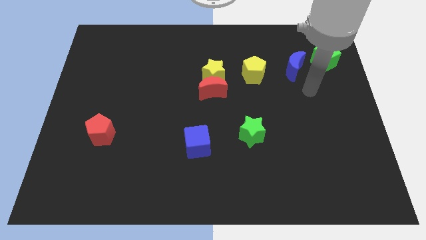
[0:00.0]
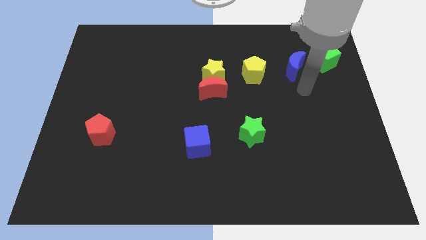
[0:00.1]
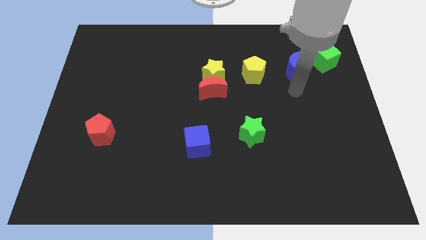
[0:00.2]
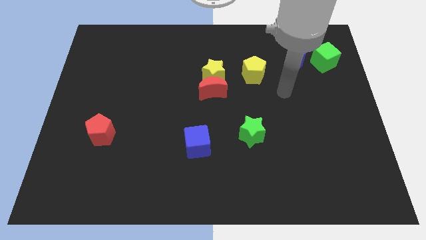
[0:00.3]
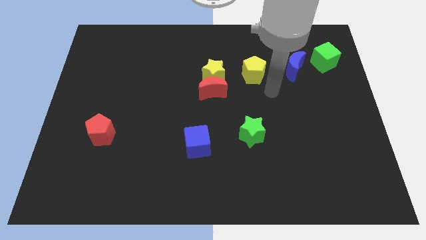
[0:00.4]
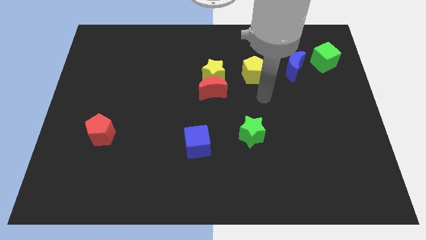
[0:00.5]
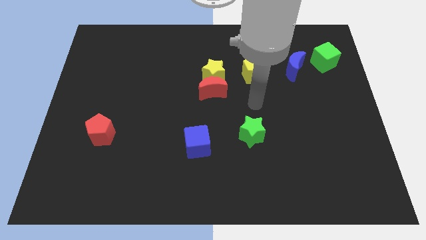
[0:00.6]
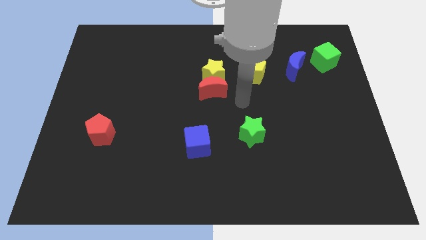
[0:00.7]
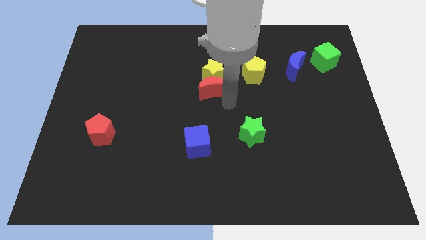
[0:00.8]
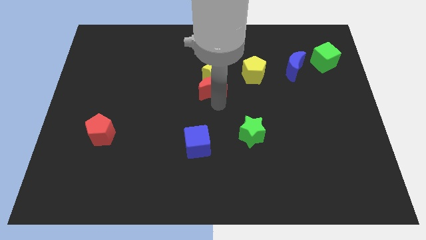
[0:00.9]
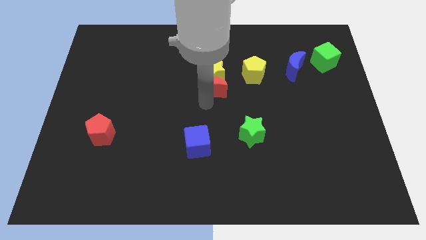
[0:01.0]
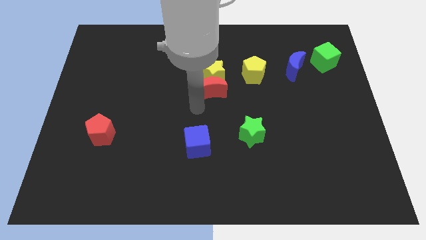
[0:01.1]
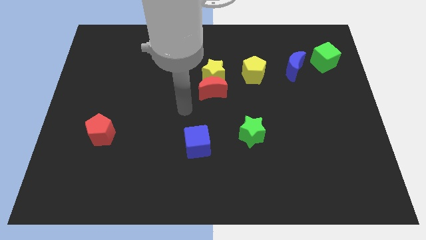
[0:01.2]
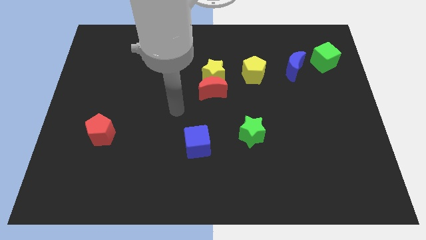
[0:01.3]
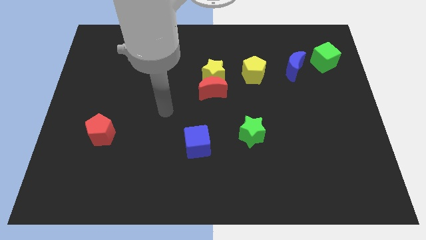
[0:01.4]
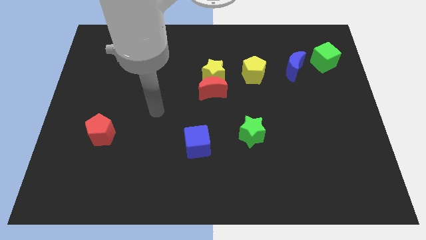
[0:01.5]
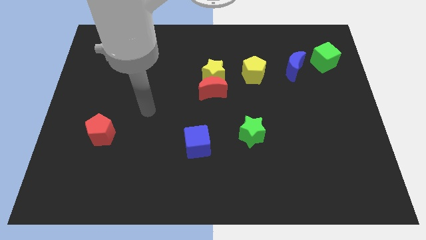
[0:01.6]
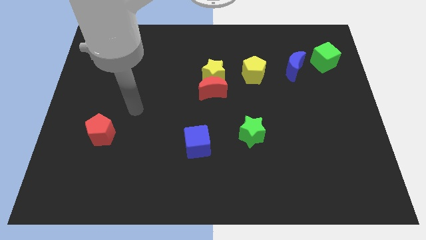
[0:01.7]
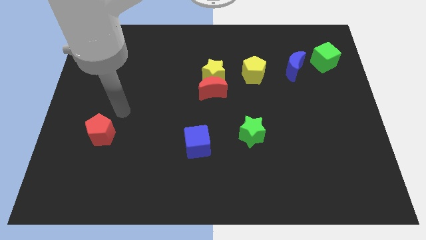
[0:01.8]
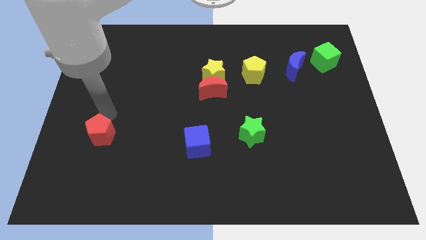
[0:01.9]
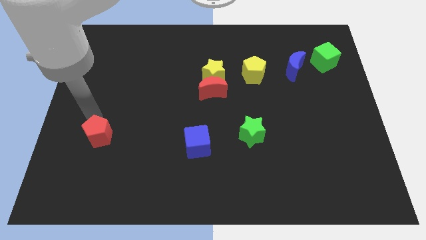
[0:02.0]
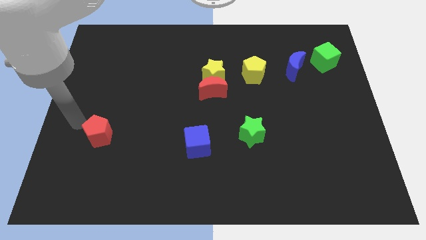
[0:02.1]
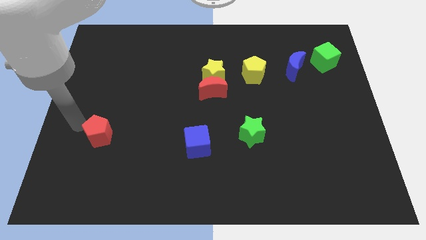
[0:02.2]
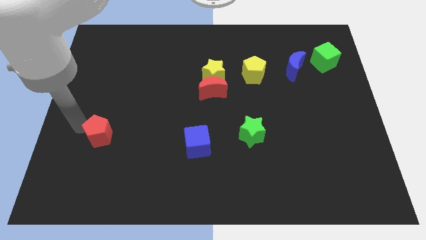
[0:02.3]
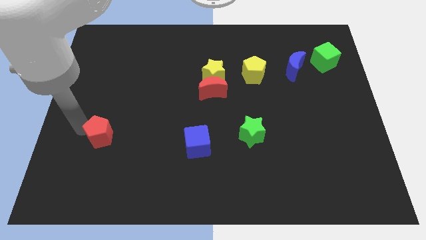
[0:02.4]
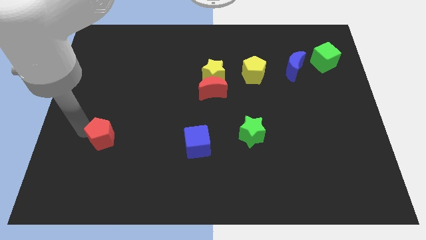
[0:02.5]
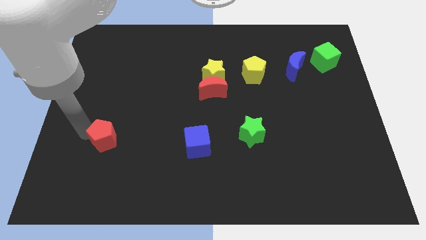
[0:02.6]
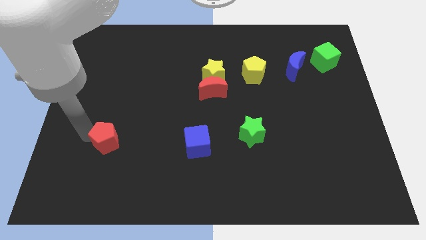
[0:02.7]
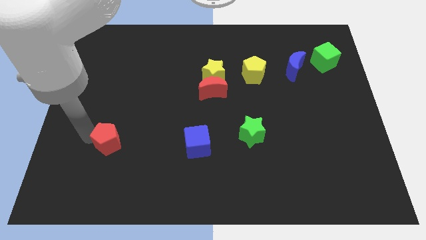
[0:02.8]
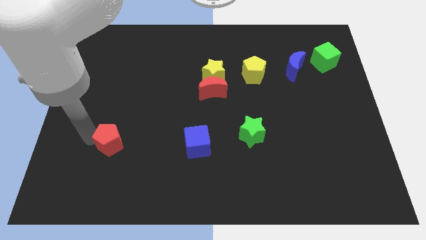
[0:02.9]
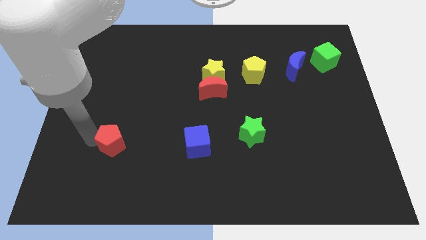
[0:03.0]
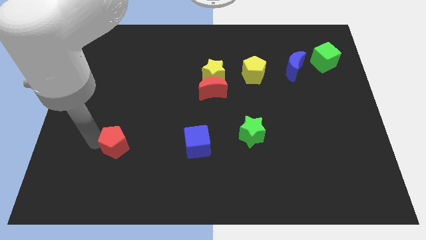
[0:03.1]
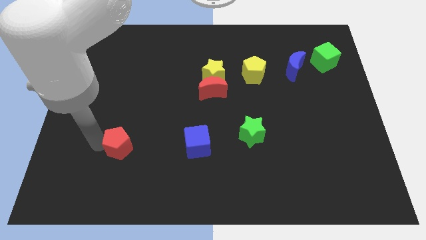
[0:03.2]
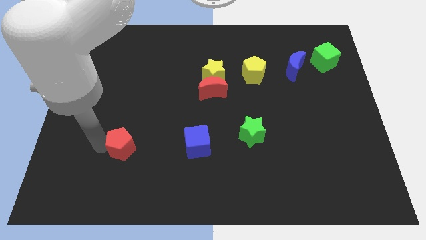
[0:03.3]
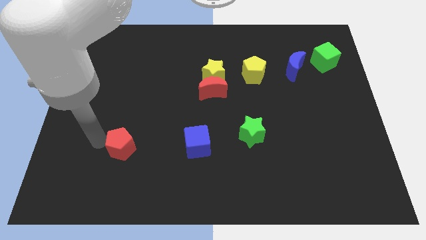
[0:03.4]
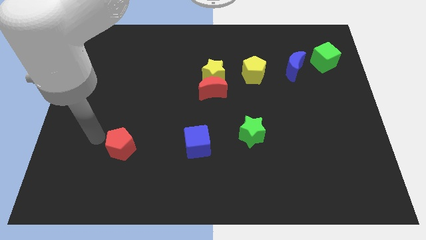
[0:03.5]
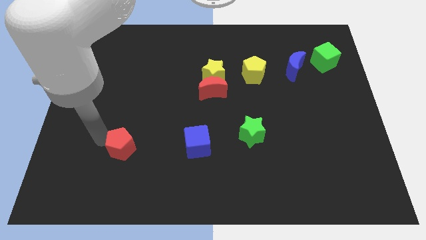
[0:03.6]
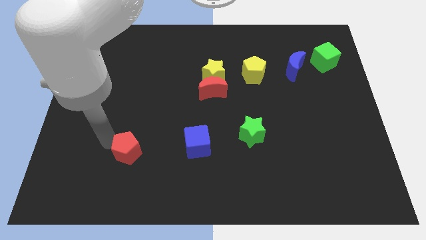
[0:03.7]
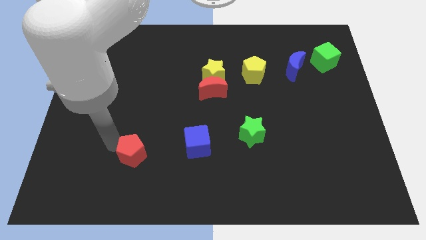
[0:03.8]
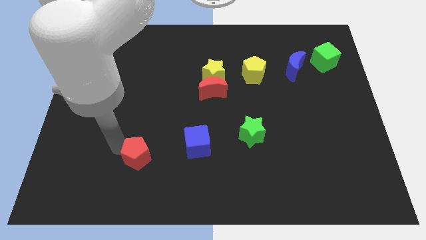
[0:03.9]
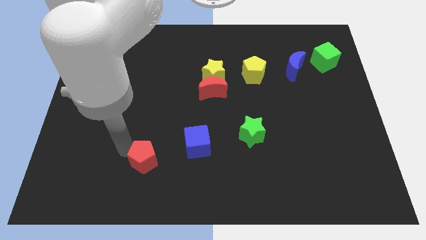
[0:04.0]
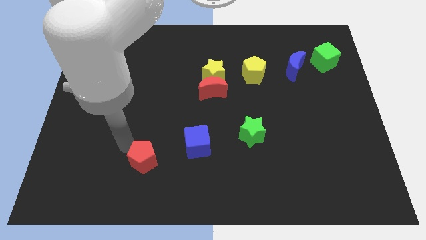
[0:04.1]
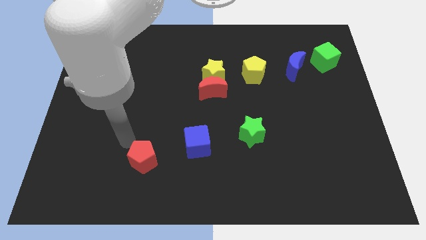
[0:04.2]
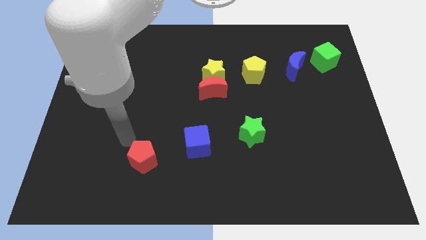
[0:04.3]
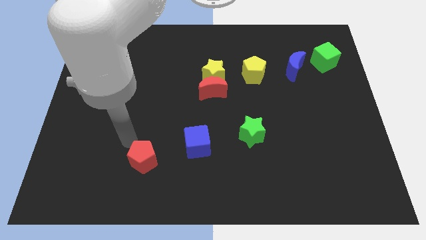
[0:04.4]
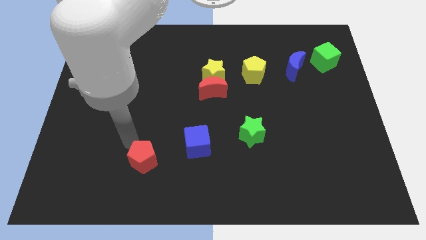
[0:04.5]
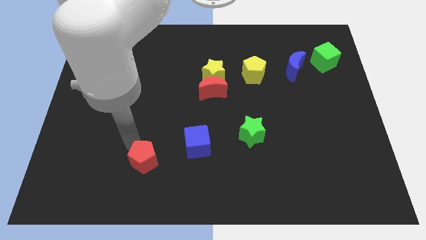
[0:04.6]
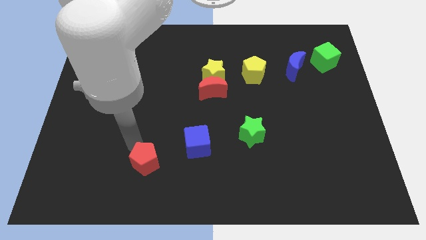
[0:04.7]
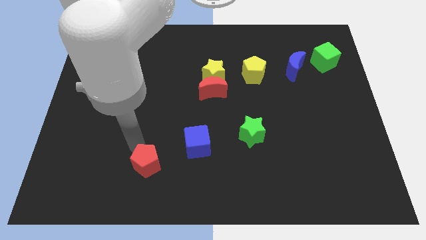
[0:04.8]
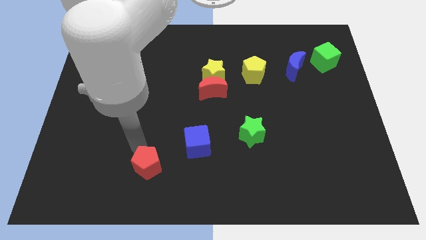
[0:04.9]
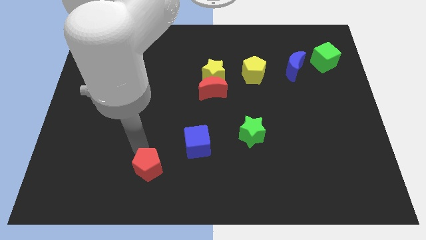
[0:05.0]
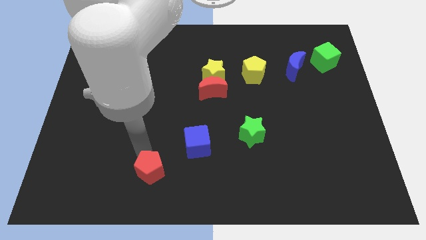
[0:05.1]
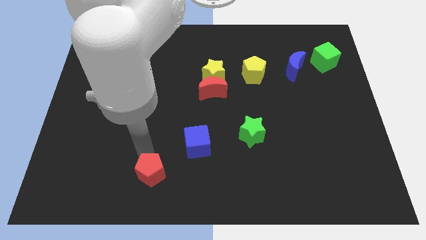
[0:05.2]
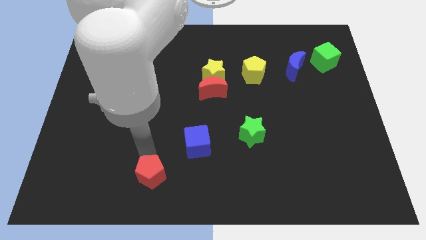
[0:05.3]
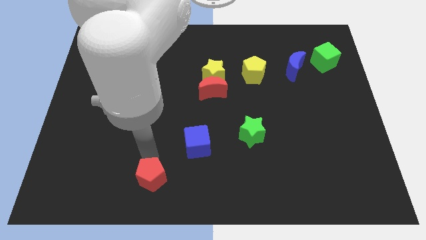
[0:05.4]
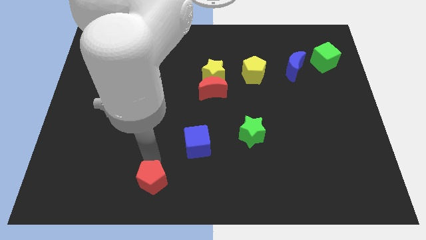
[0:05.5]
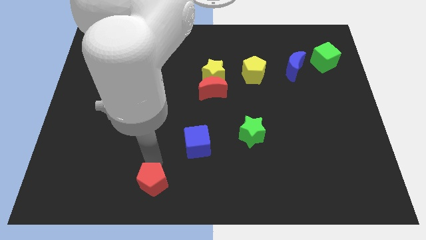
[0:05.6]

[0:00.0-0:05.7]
put the red pentagon to the bottom

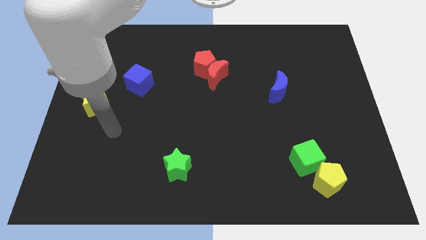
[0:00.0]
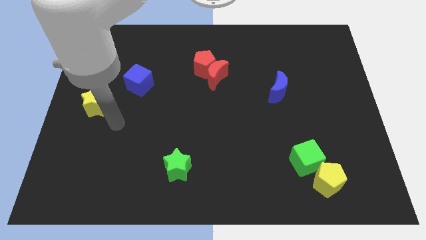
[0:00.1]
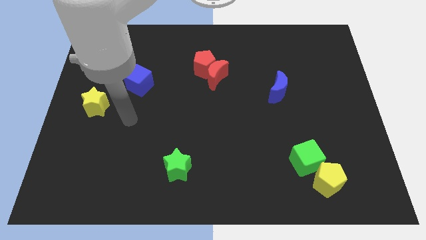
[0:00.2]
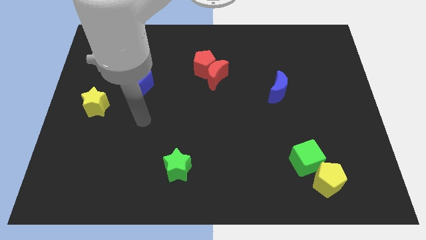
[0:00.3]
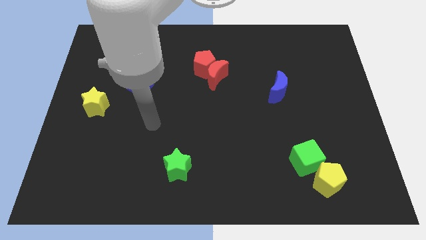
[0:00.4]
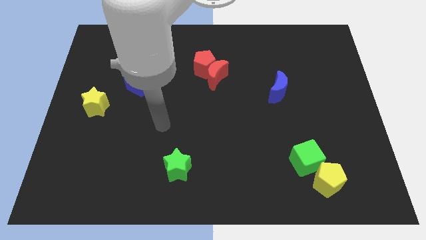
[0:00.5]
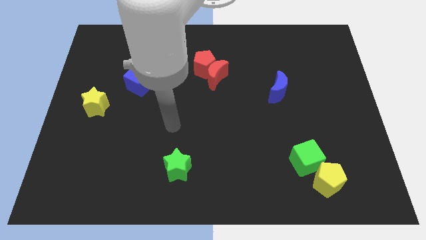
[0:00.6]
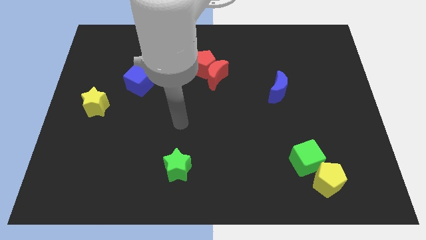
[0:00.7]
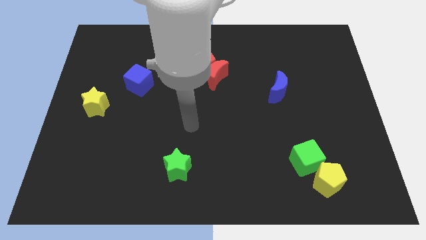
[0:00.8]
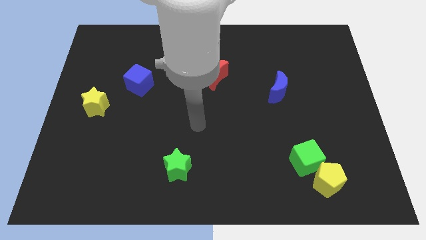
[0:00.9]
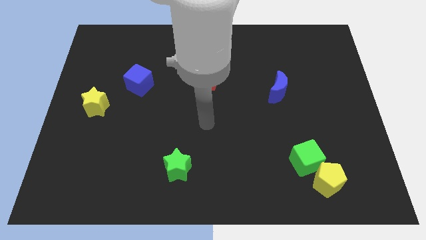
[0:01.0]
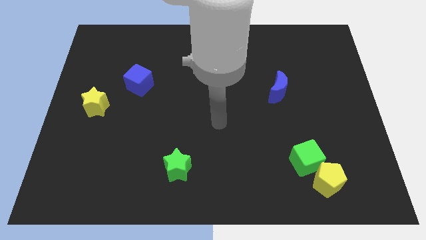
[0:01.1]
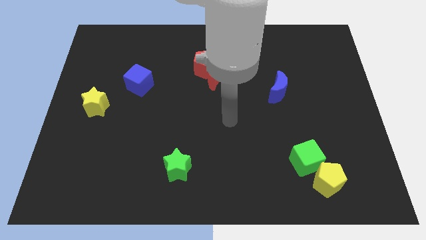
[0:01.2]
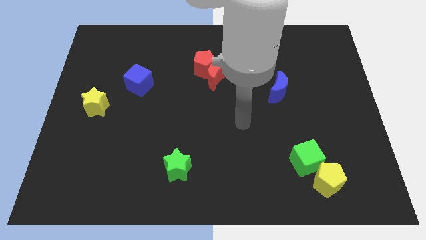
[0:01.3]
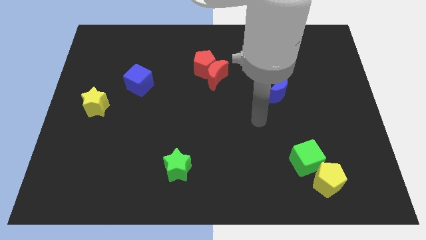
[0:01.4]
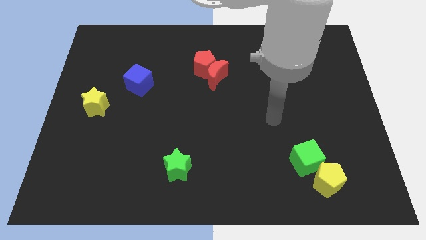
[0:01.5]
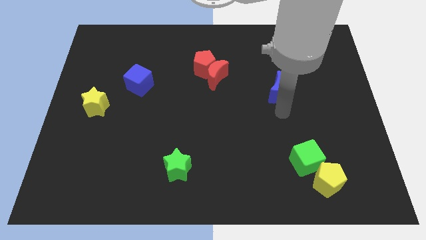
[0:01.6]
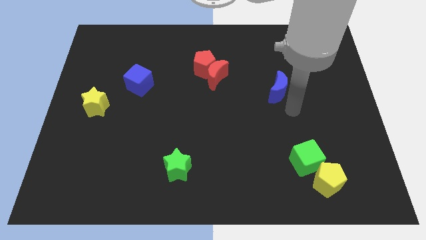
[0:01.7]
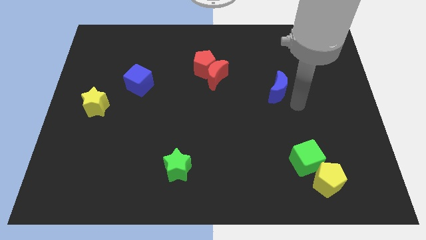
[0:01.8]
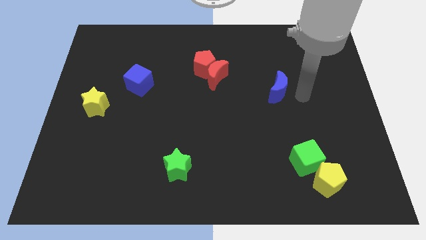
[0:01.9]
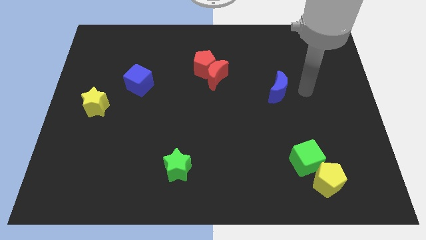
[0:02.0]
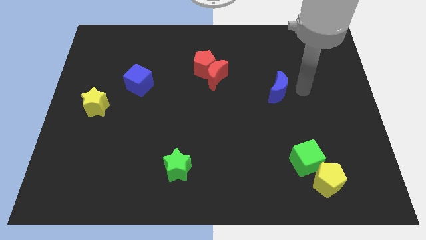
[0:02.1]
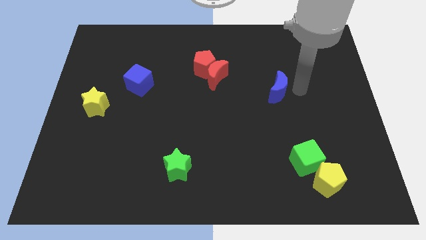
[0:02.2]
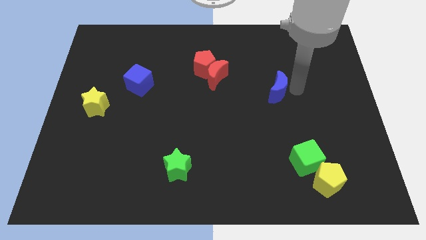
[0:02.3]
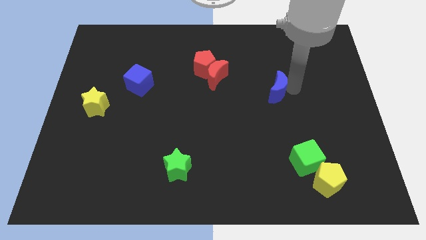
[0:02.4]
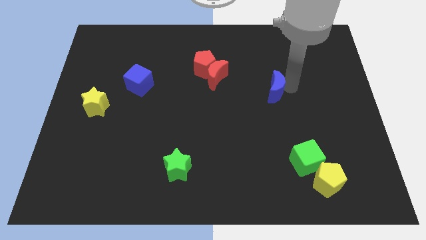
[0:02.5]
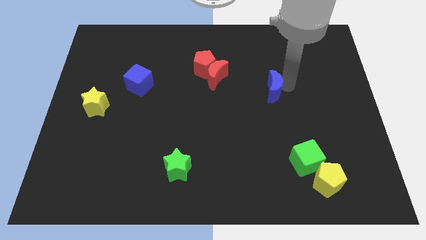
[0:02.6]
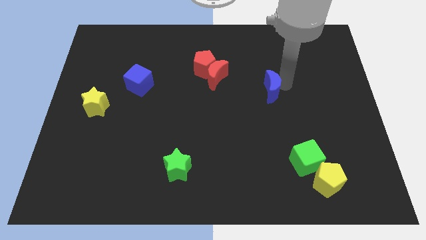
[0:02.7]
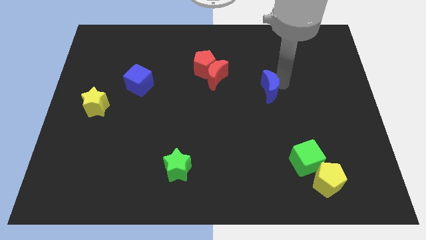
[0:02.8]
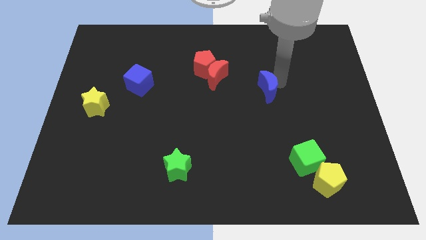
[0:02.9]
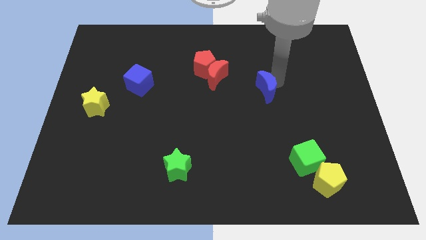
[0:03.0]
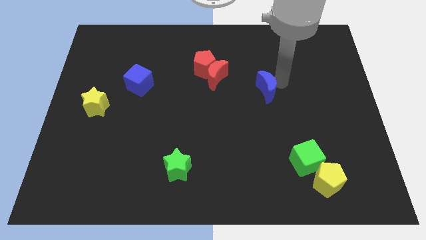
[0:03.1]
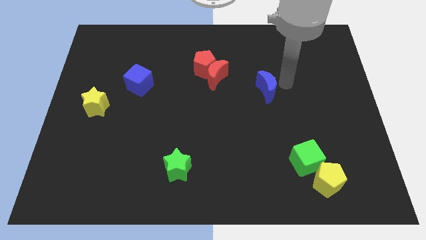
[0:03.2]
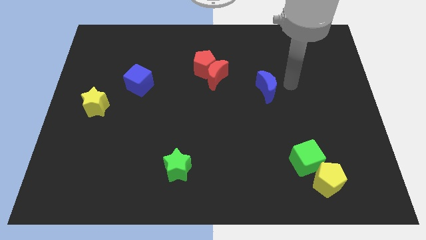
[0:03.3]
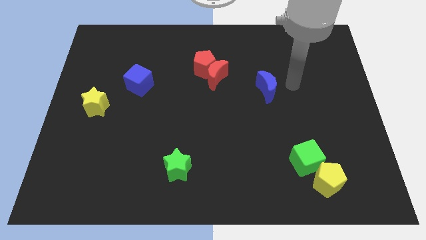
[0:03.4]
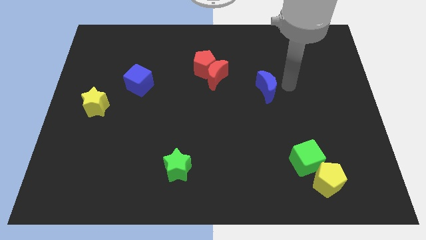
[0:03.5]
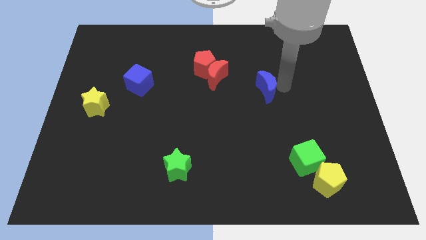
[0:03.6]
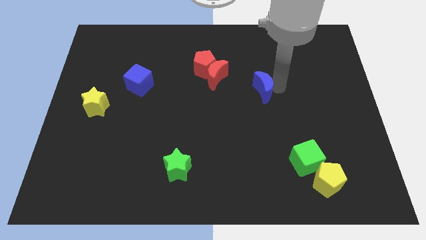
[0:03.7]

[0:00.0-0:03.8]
push the blue moon to the middle of the board
